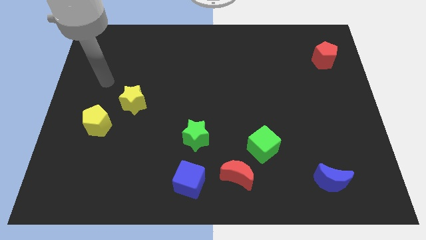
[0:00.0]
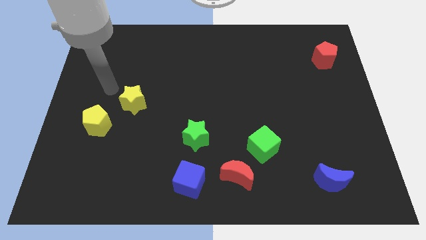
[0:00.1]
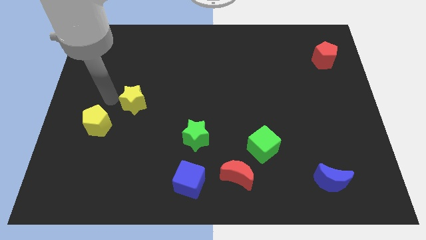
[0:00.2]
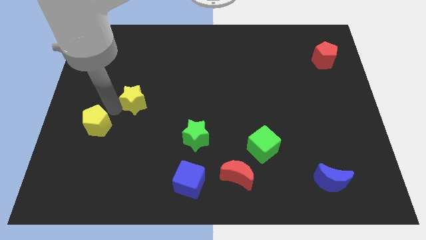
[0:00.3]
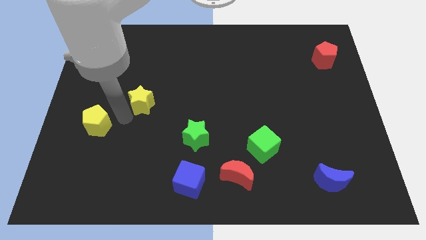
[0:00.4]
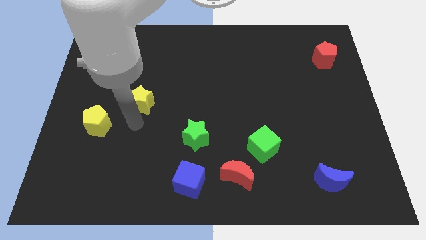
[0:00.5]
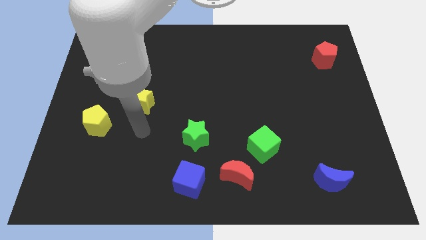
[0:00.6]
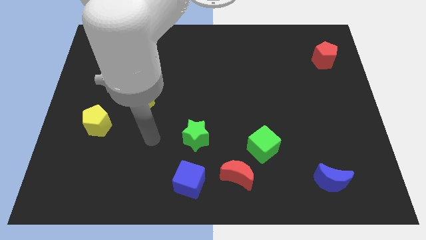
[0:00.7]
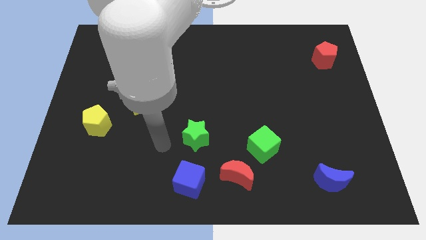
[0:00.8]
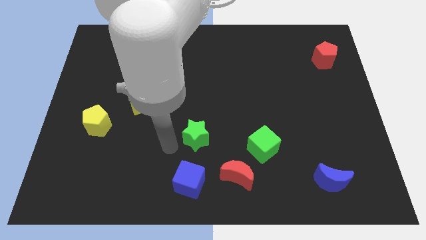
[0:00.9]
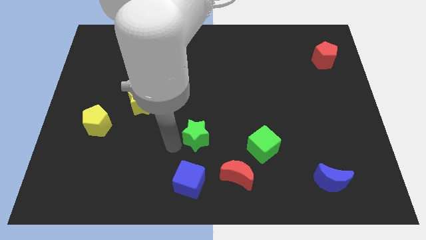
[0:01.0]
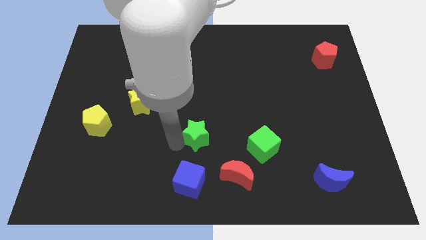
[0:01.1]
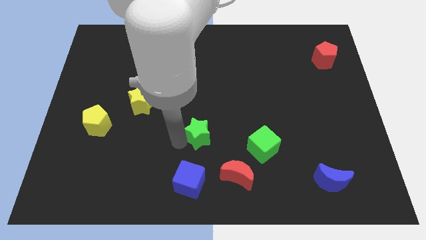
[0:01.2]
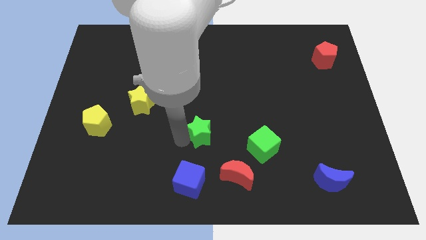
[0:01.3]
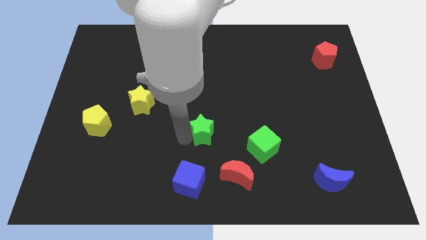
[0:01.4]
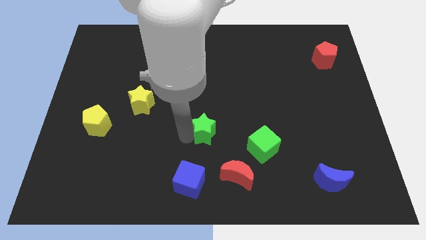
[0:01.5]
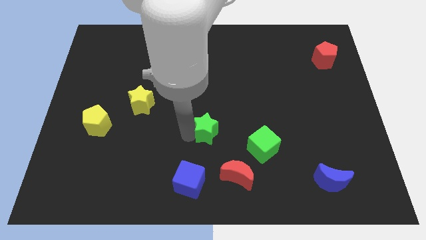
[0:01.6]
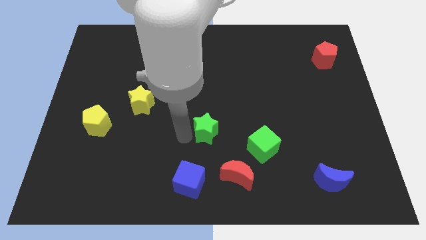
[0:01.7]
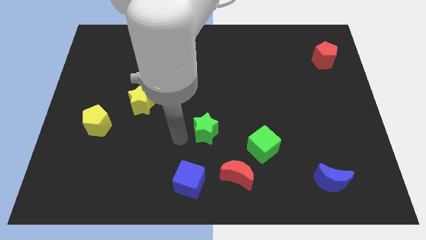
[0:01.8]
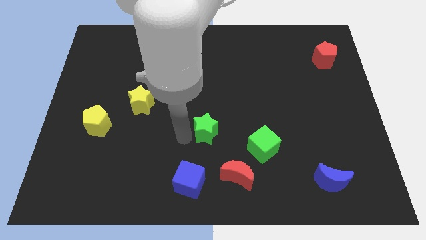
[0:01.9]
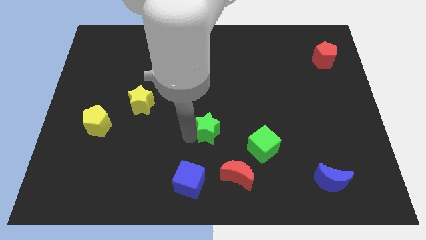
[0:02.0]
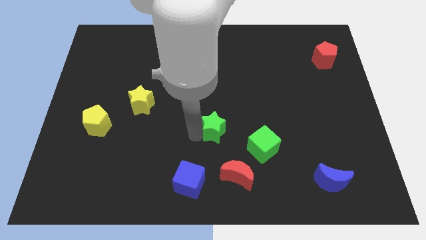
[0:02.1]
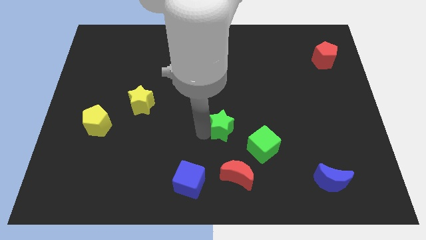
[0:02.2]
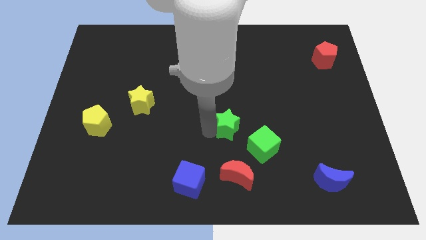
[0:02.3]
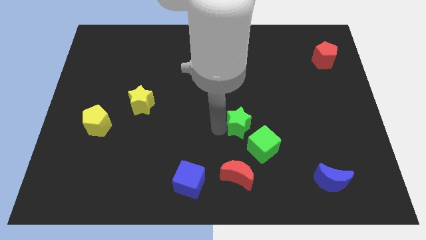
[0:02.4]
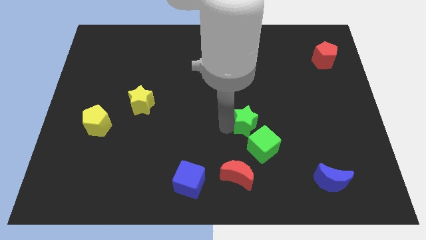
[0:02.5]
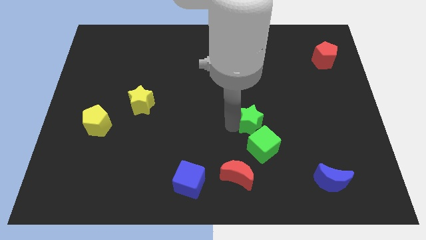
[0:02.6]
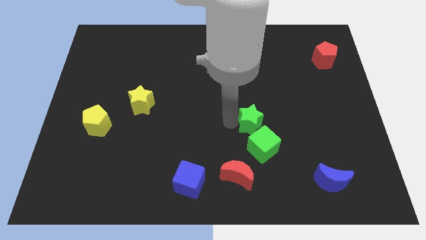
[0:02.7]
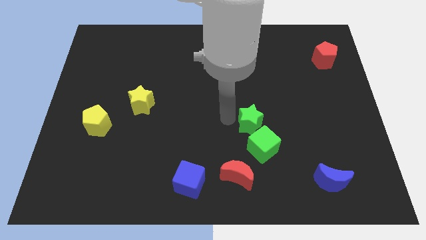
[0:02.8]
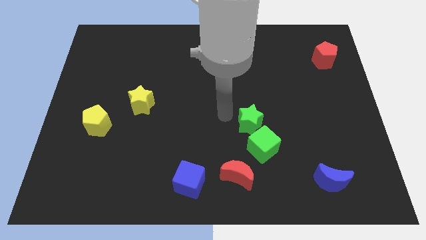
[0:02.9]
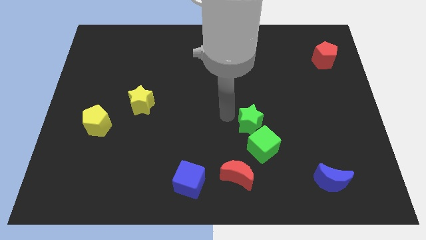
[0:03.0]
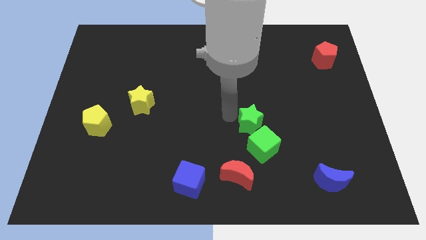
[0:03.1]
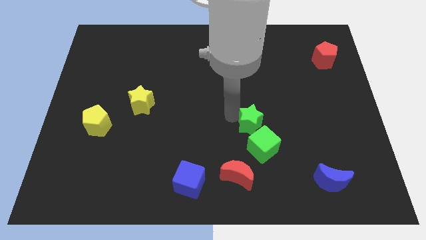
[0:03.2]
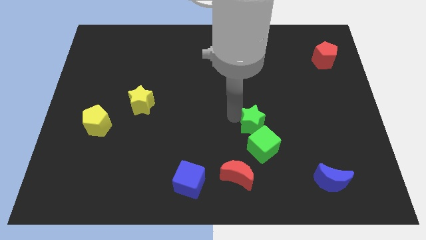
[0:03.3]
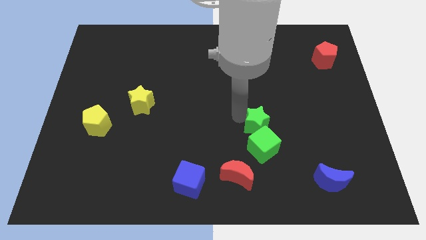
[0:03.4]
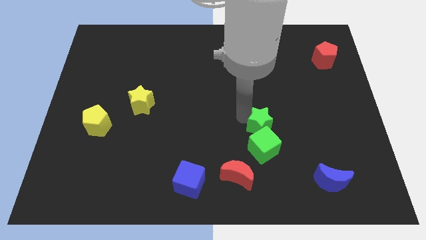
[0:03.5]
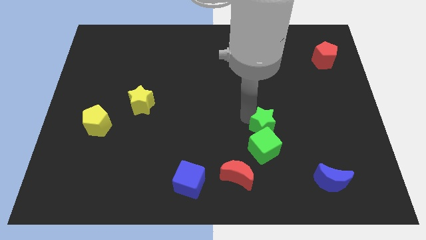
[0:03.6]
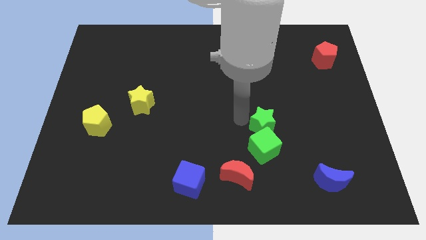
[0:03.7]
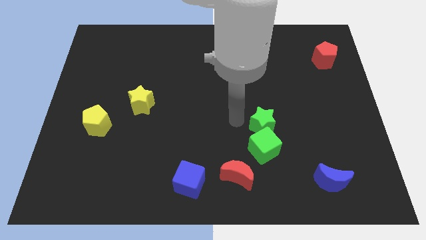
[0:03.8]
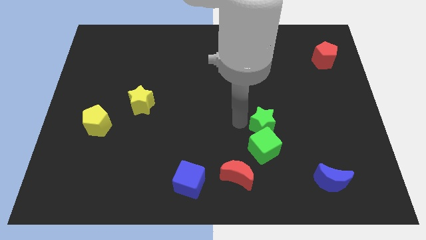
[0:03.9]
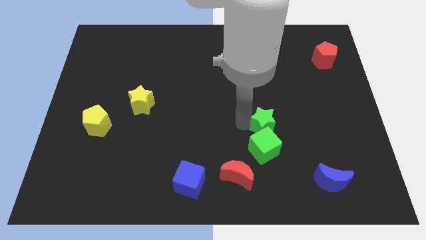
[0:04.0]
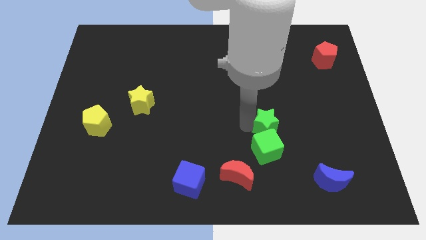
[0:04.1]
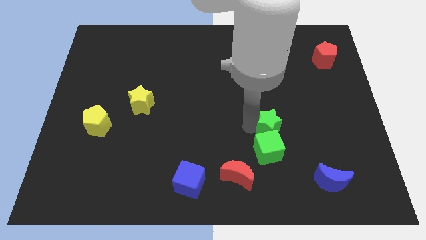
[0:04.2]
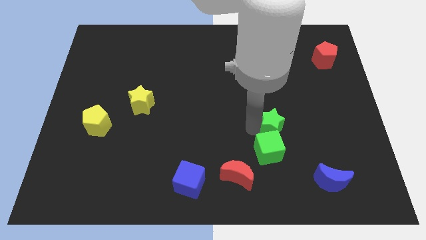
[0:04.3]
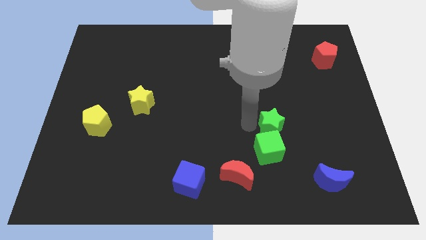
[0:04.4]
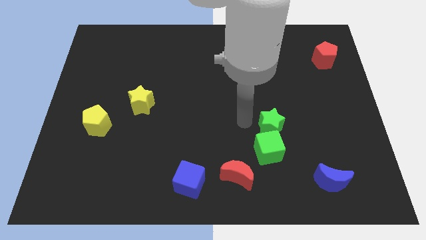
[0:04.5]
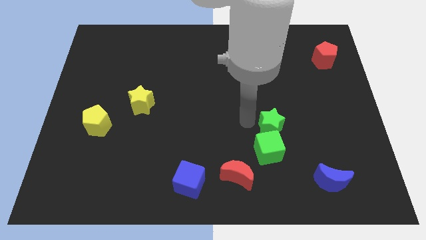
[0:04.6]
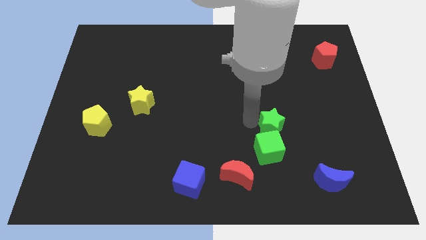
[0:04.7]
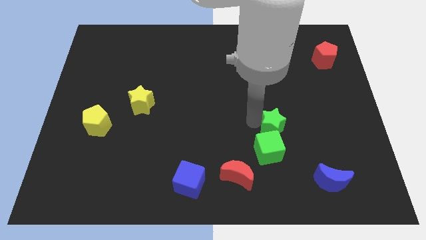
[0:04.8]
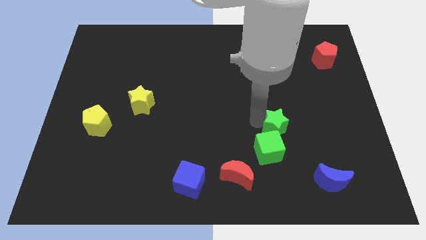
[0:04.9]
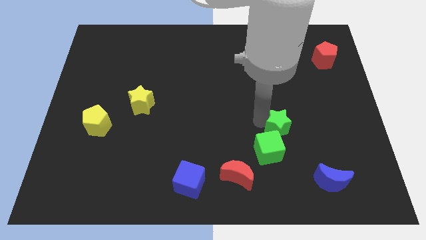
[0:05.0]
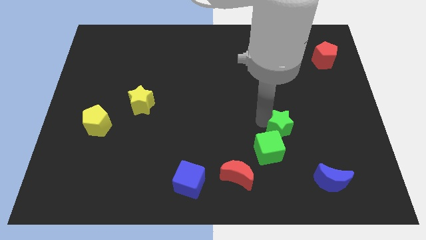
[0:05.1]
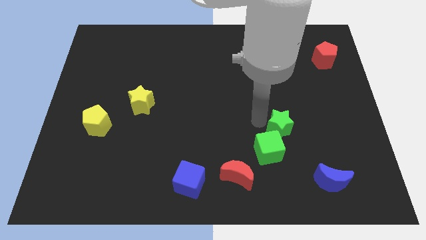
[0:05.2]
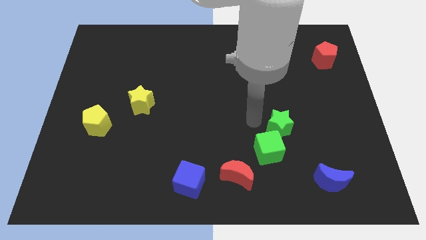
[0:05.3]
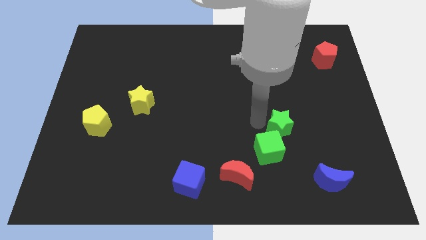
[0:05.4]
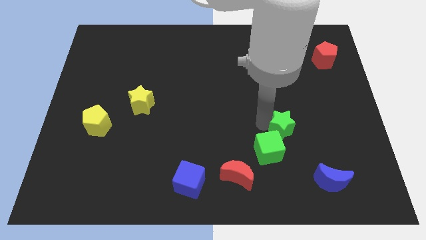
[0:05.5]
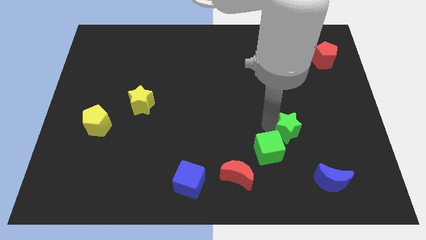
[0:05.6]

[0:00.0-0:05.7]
move the green star to the right

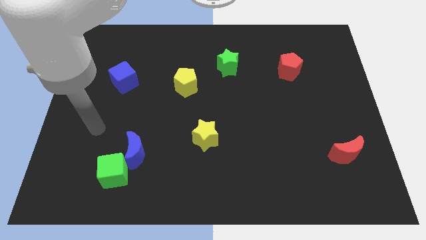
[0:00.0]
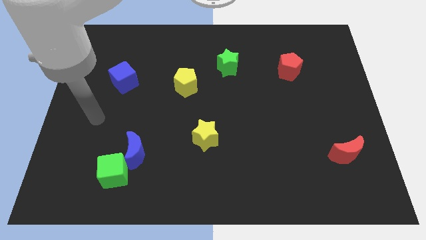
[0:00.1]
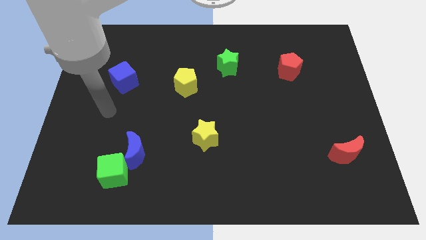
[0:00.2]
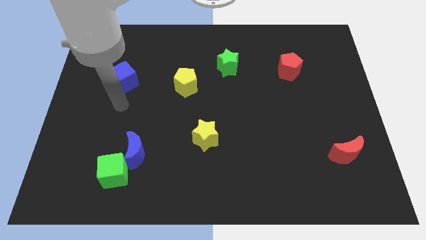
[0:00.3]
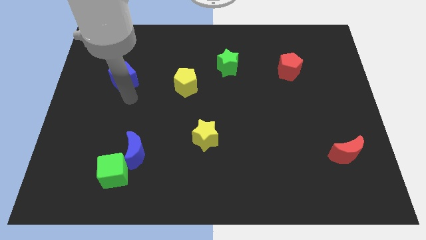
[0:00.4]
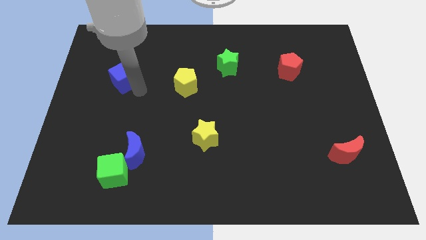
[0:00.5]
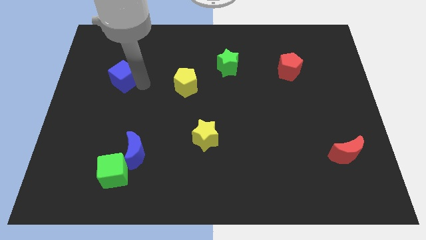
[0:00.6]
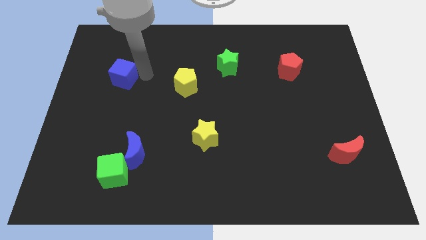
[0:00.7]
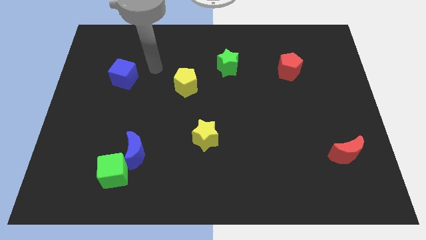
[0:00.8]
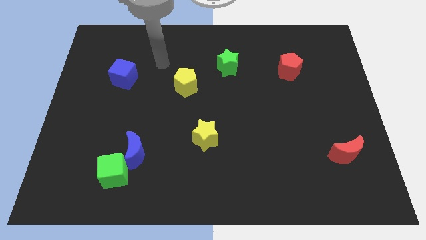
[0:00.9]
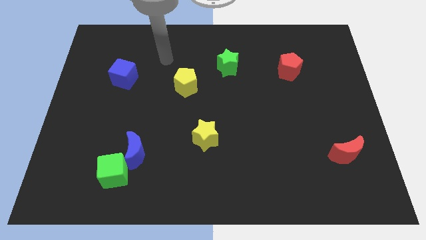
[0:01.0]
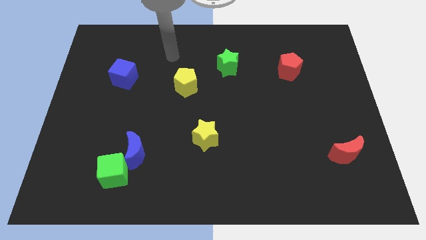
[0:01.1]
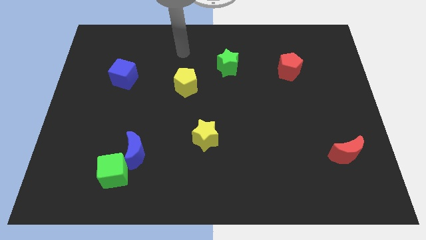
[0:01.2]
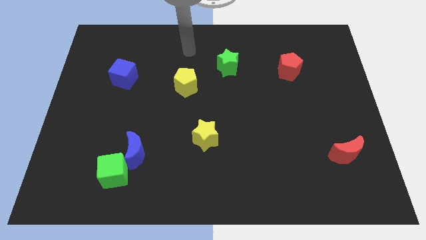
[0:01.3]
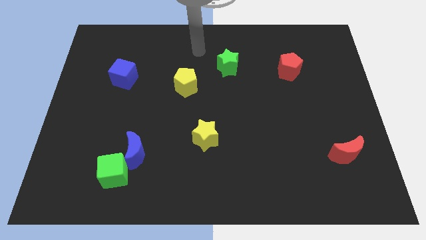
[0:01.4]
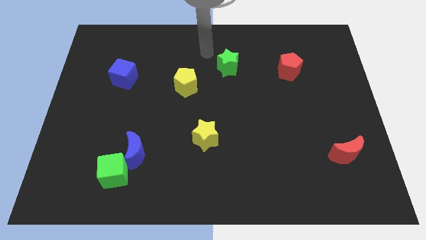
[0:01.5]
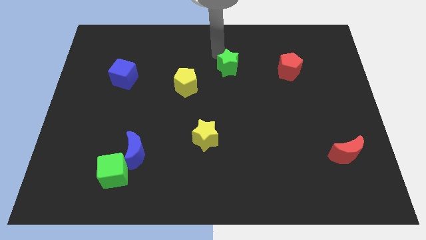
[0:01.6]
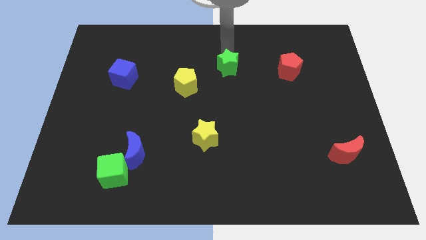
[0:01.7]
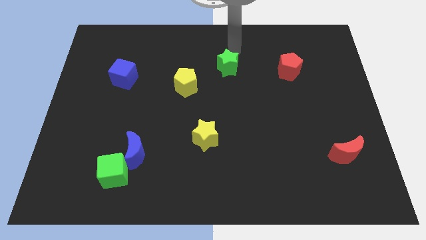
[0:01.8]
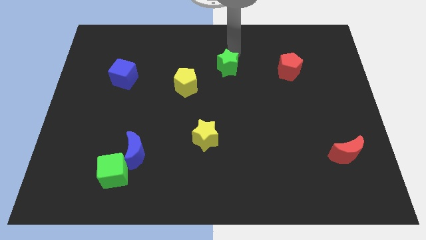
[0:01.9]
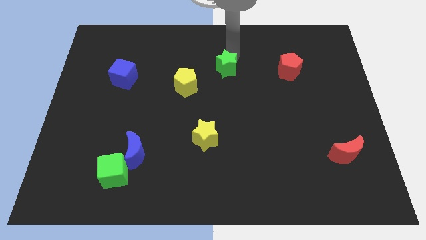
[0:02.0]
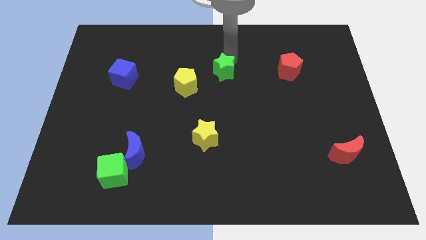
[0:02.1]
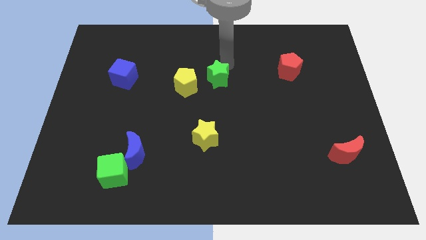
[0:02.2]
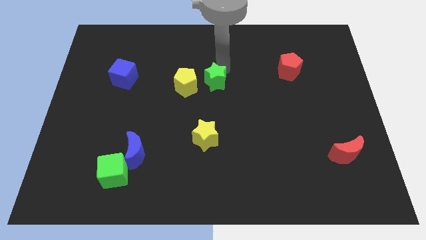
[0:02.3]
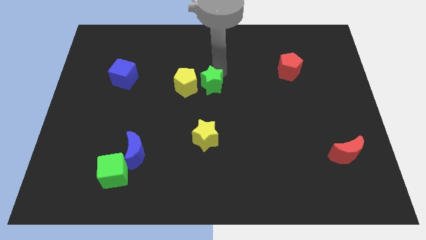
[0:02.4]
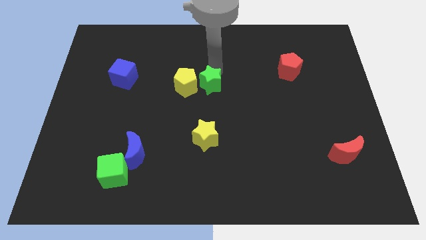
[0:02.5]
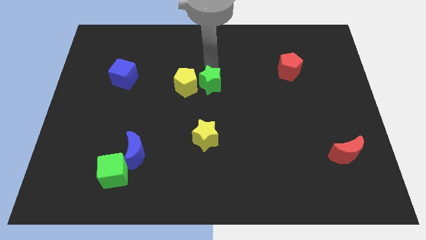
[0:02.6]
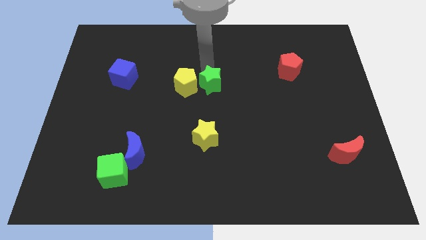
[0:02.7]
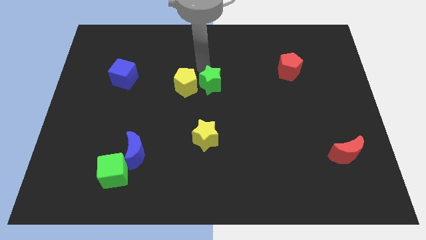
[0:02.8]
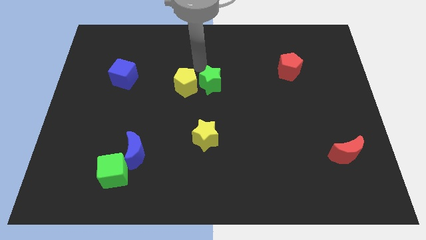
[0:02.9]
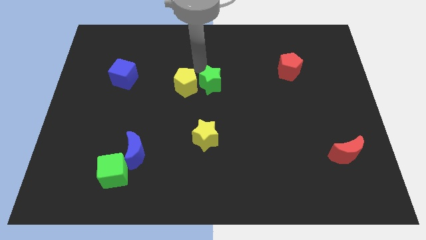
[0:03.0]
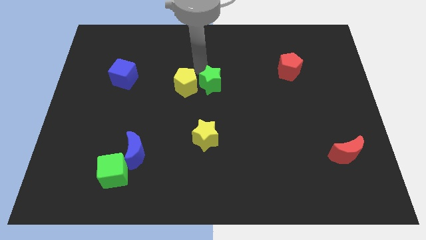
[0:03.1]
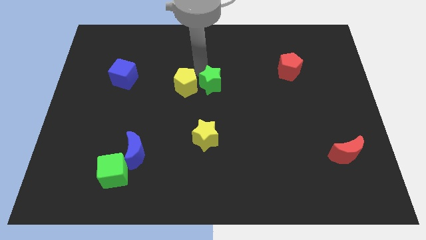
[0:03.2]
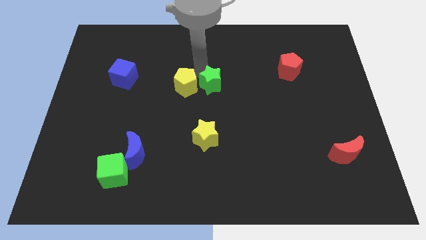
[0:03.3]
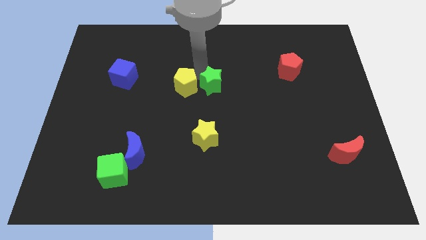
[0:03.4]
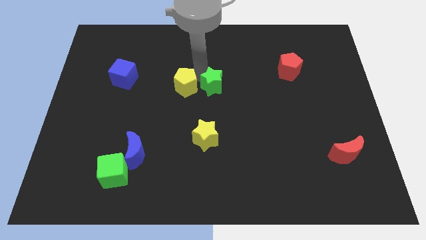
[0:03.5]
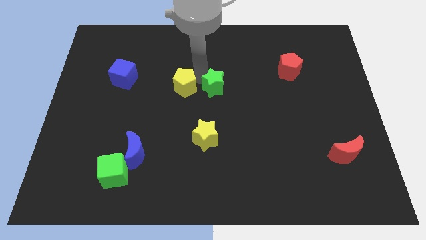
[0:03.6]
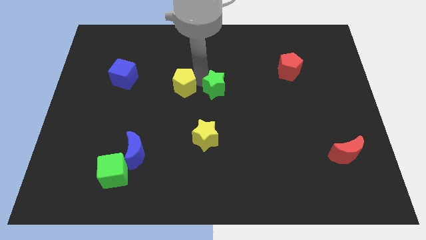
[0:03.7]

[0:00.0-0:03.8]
push the green star down a little bit
